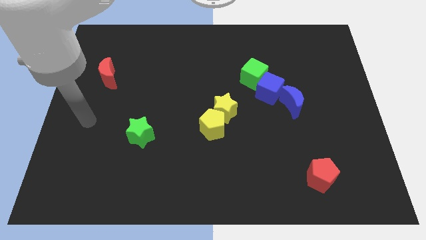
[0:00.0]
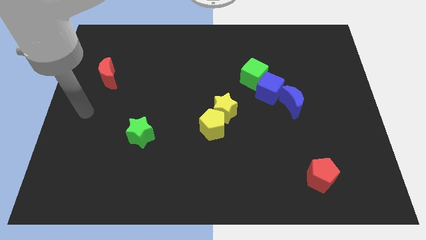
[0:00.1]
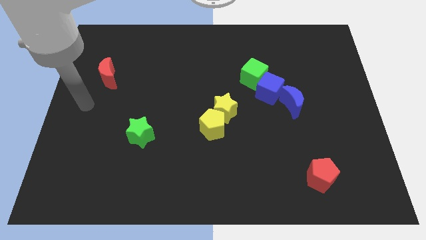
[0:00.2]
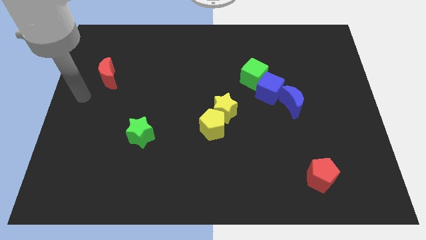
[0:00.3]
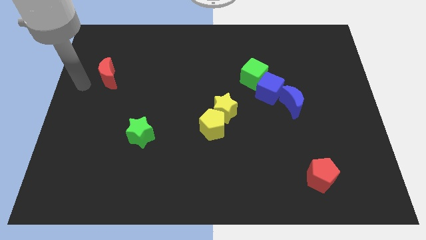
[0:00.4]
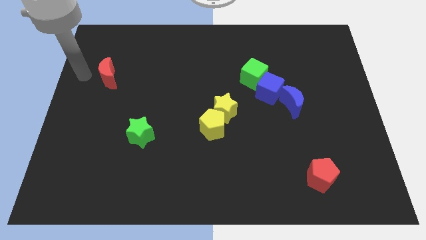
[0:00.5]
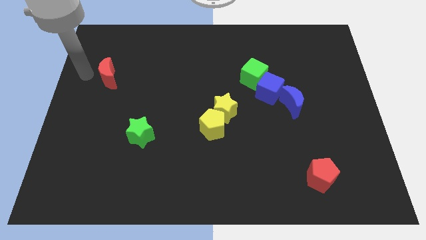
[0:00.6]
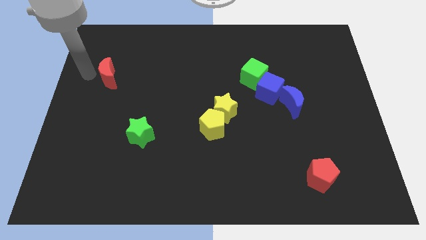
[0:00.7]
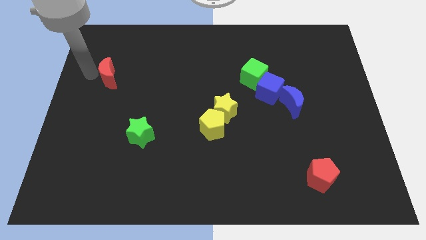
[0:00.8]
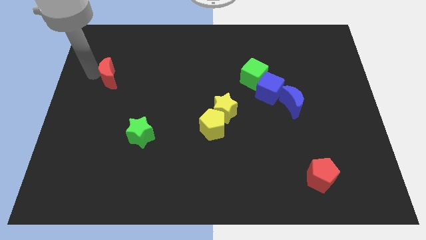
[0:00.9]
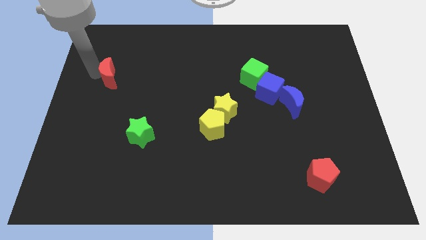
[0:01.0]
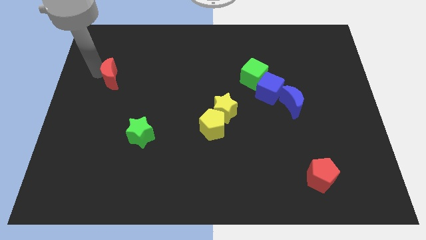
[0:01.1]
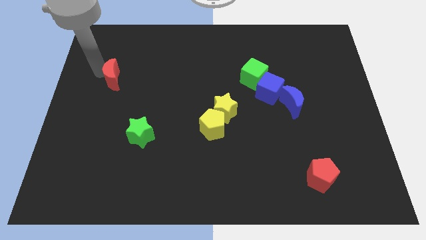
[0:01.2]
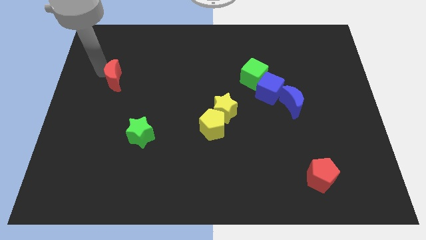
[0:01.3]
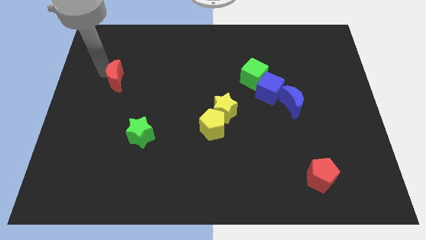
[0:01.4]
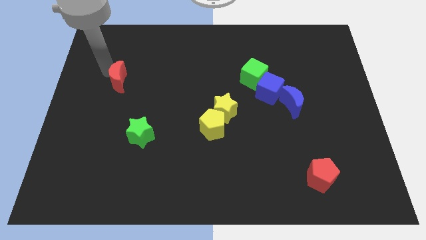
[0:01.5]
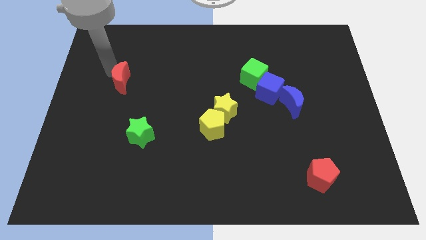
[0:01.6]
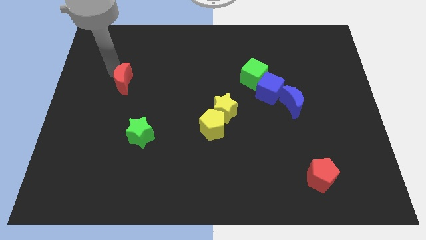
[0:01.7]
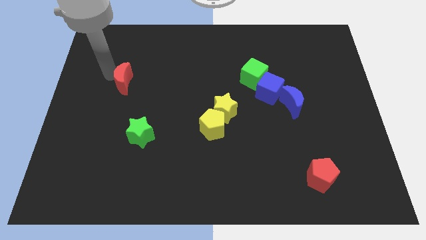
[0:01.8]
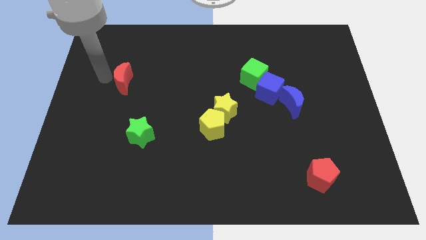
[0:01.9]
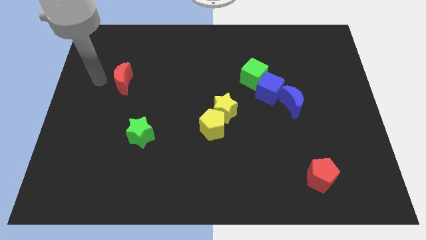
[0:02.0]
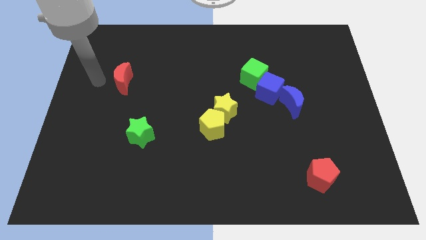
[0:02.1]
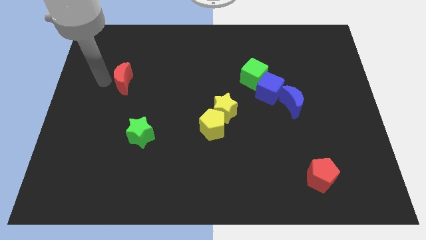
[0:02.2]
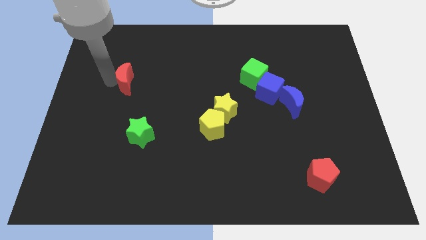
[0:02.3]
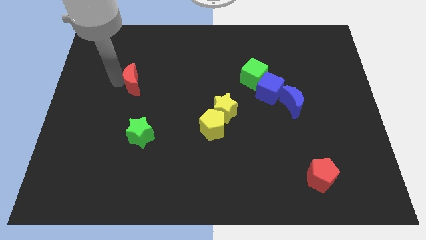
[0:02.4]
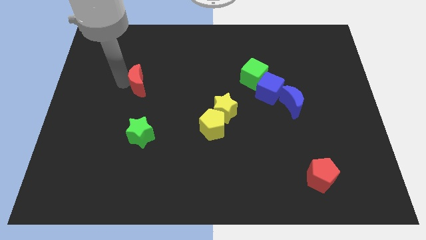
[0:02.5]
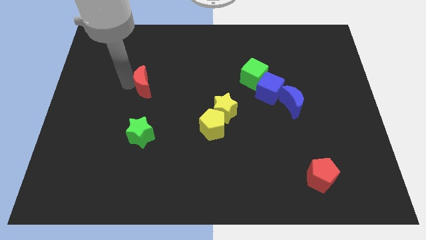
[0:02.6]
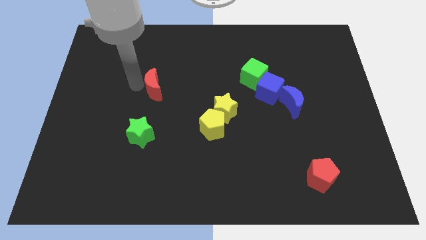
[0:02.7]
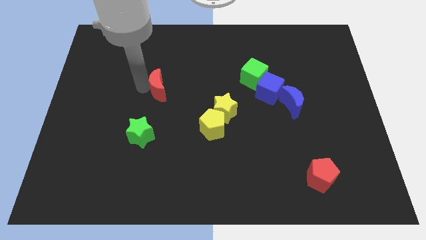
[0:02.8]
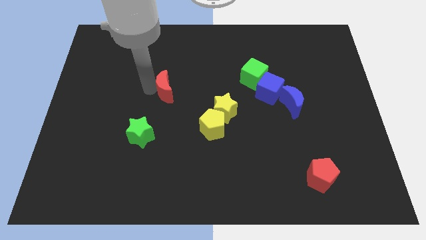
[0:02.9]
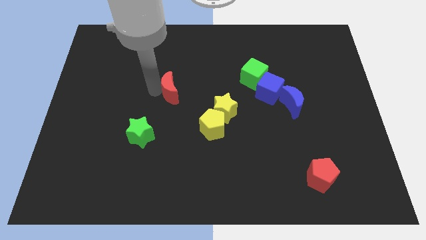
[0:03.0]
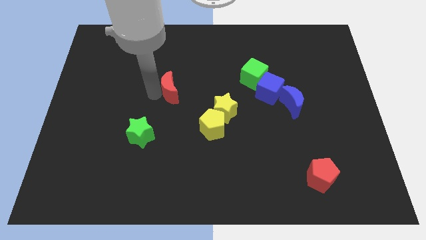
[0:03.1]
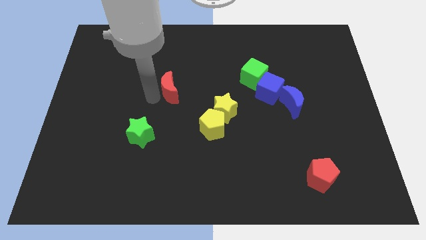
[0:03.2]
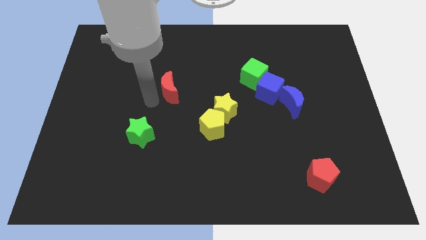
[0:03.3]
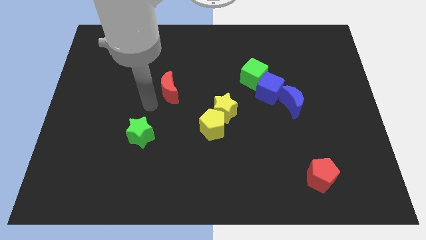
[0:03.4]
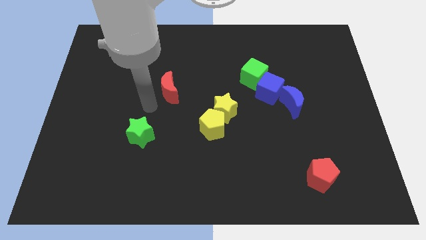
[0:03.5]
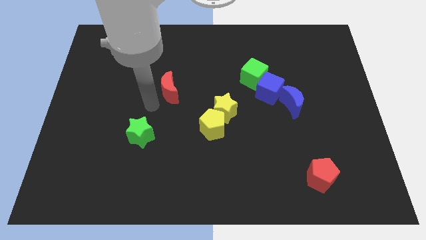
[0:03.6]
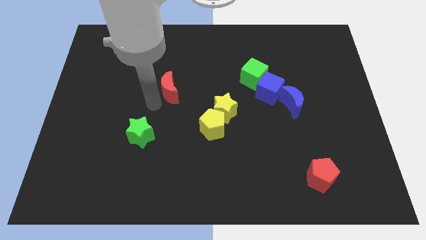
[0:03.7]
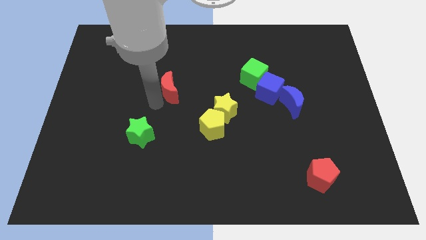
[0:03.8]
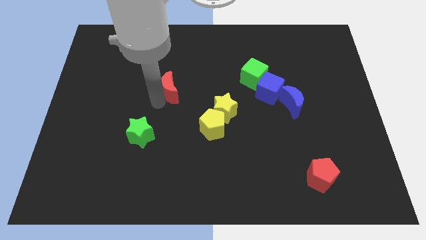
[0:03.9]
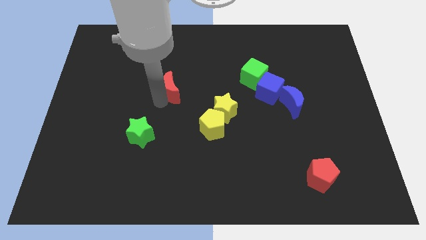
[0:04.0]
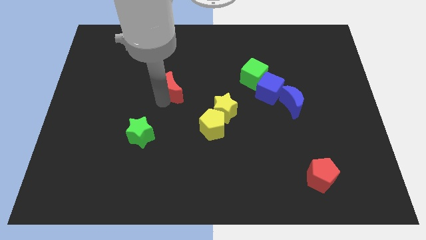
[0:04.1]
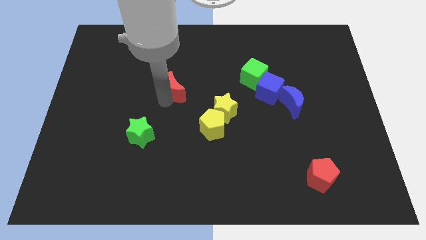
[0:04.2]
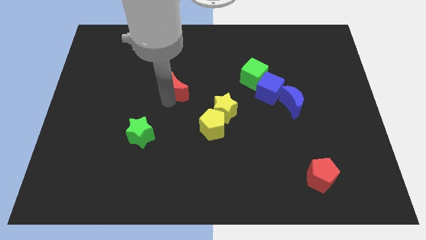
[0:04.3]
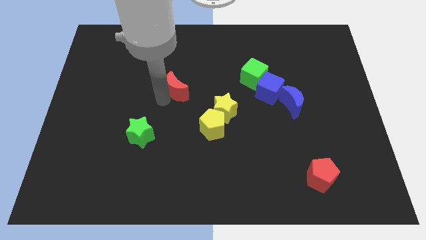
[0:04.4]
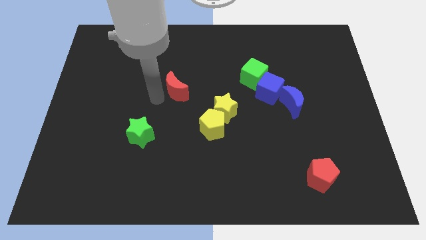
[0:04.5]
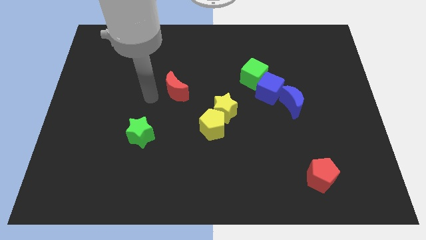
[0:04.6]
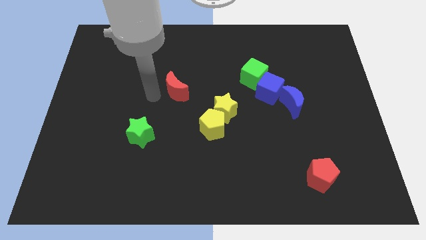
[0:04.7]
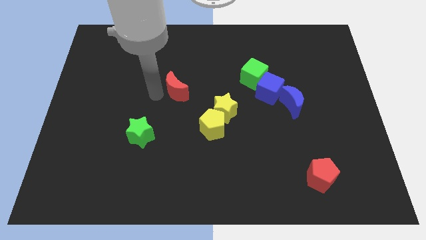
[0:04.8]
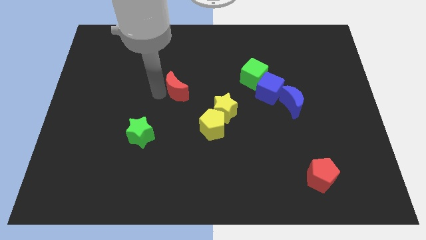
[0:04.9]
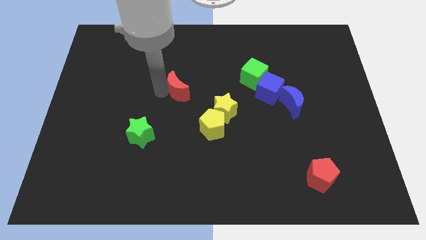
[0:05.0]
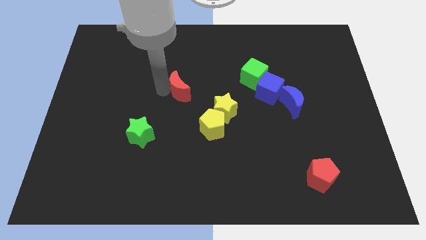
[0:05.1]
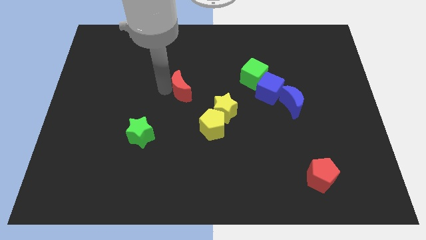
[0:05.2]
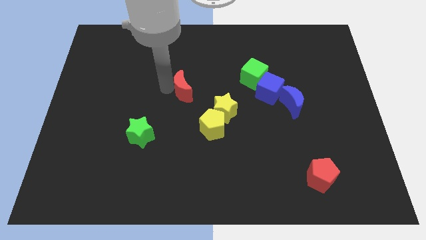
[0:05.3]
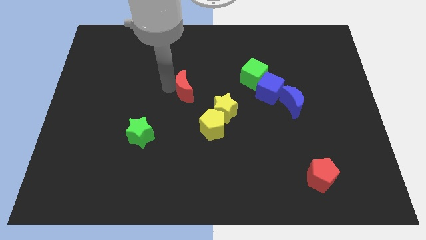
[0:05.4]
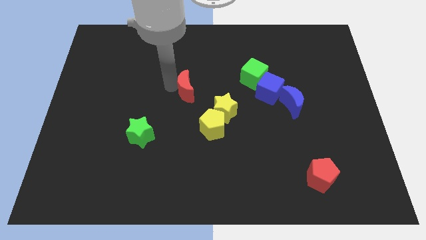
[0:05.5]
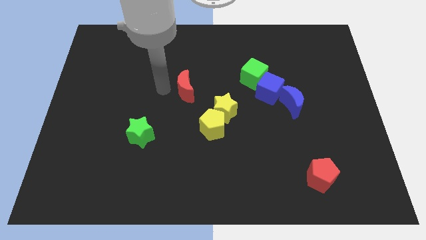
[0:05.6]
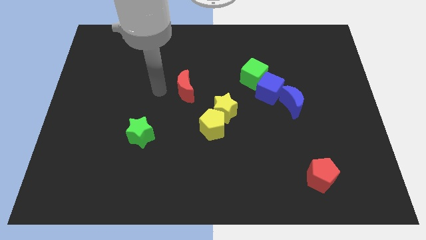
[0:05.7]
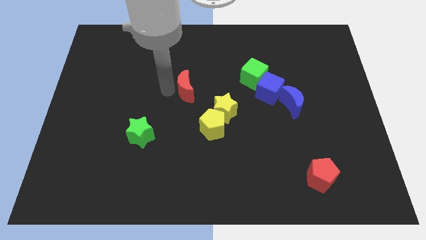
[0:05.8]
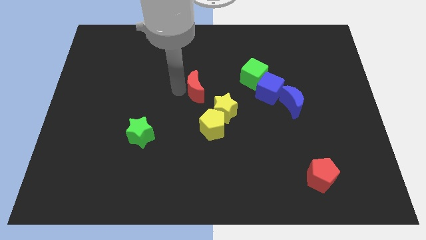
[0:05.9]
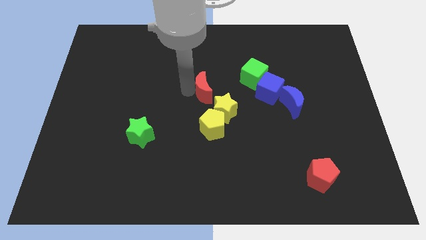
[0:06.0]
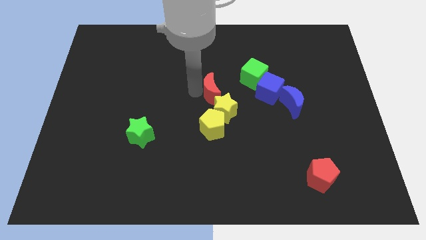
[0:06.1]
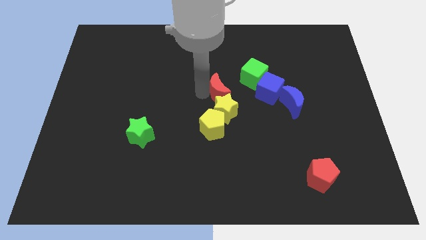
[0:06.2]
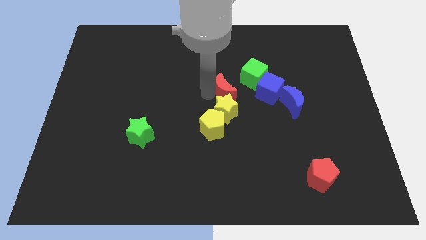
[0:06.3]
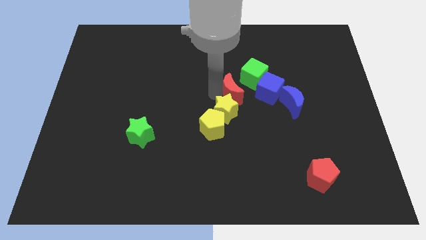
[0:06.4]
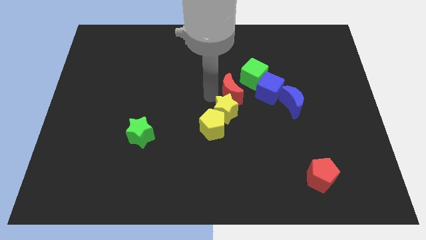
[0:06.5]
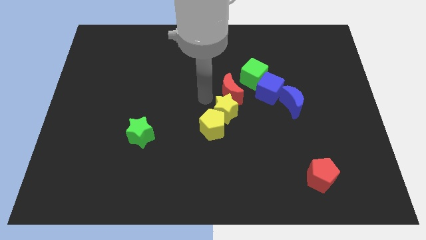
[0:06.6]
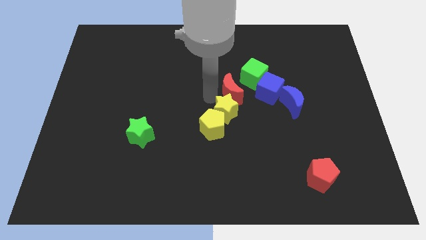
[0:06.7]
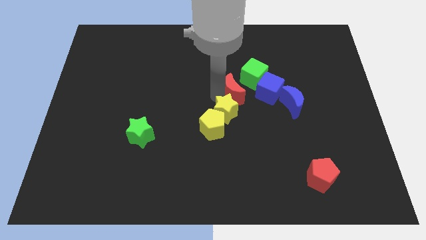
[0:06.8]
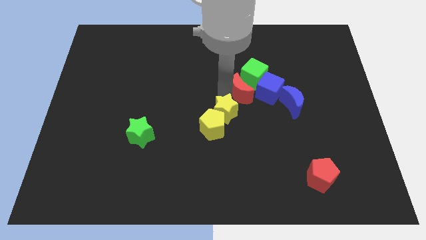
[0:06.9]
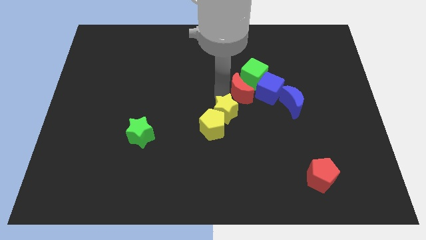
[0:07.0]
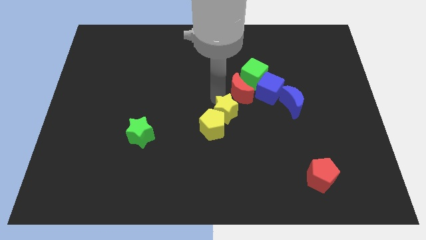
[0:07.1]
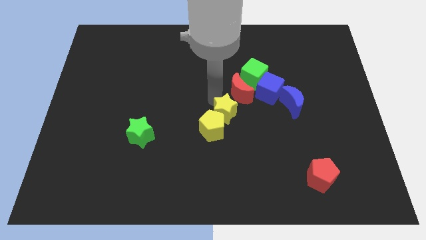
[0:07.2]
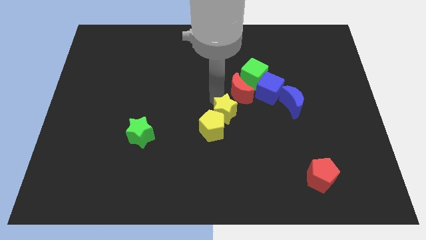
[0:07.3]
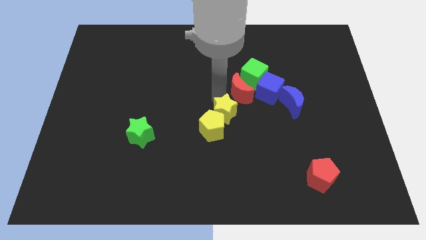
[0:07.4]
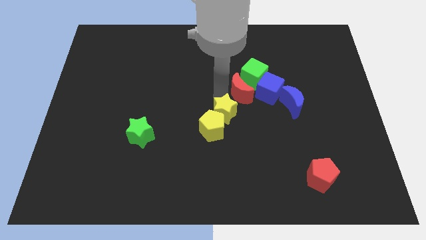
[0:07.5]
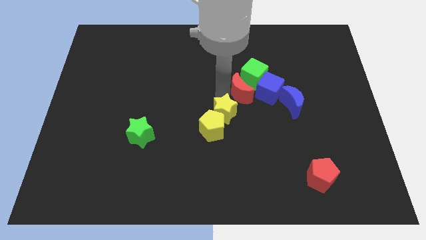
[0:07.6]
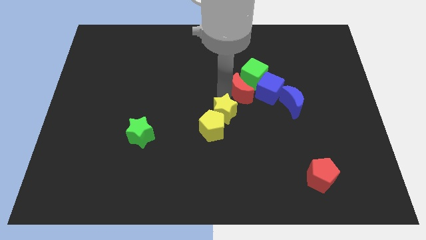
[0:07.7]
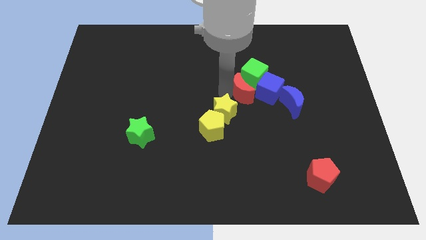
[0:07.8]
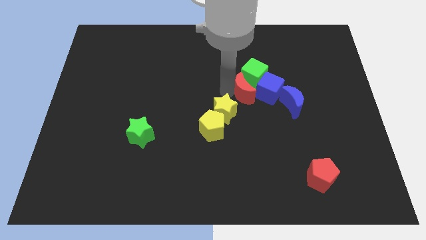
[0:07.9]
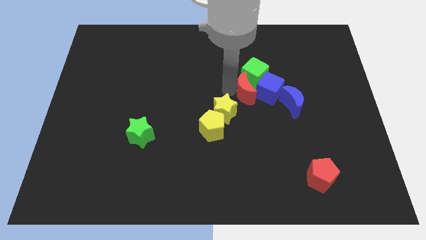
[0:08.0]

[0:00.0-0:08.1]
move the red moon next to the blue cube
